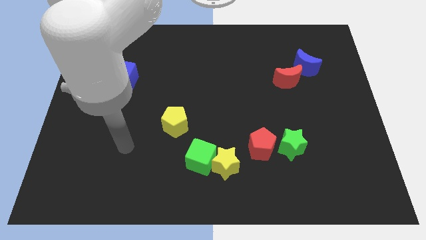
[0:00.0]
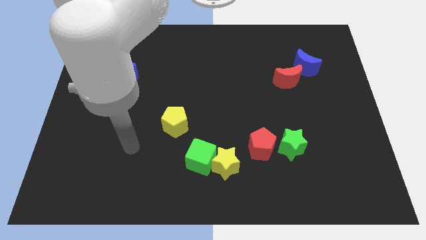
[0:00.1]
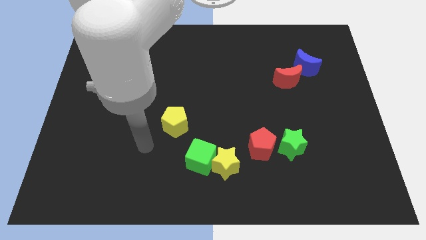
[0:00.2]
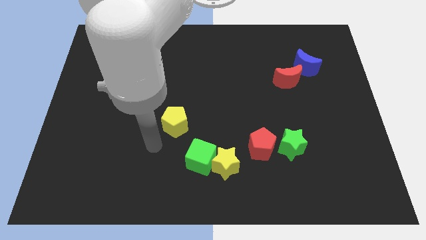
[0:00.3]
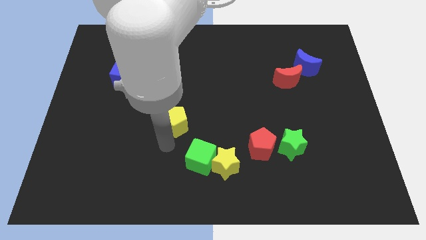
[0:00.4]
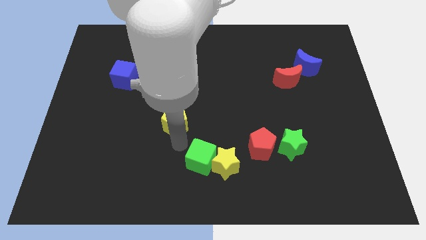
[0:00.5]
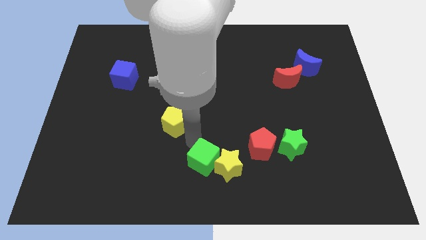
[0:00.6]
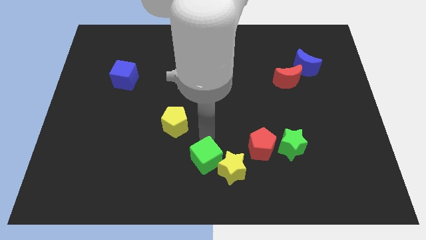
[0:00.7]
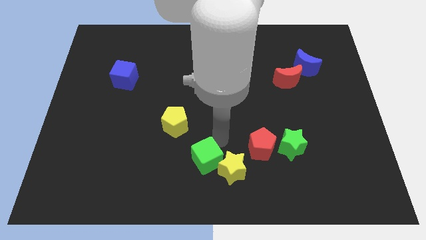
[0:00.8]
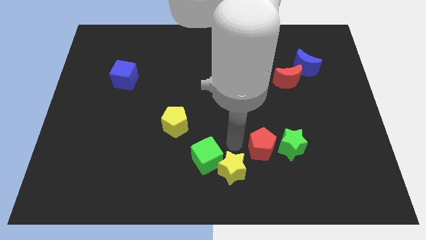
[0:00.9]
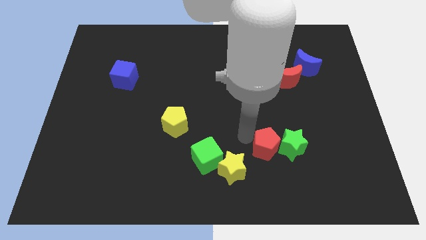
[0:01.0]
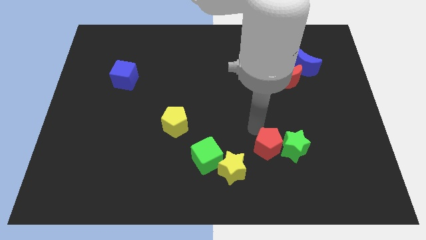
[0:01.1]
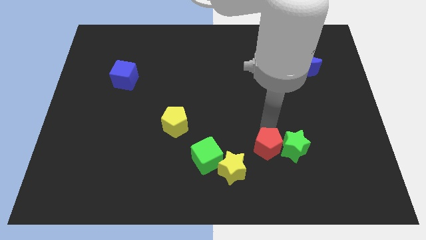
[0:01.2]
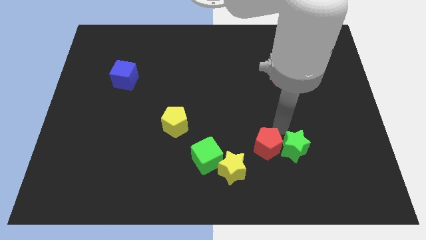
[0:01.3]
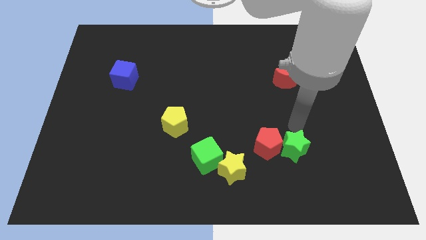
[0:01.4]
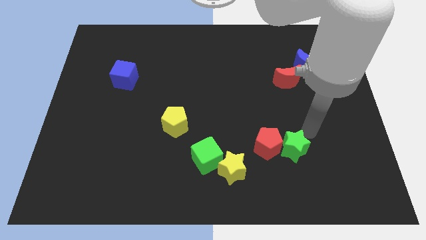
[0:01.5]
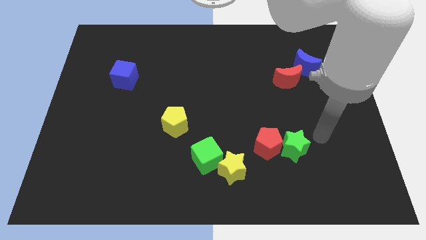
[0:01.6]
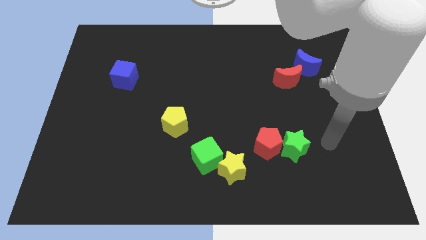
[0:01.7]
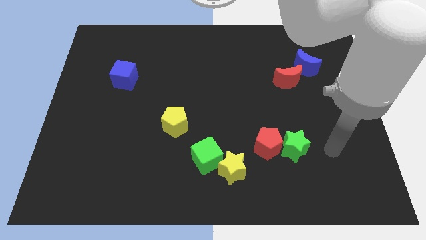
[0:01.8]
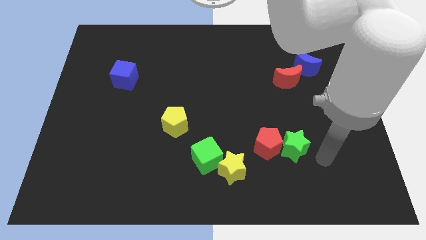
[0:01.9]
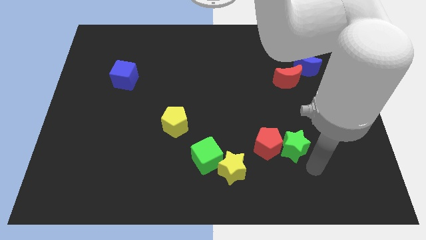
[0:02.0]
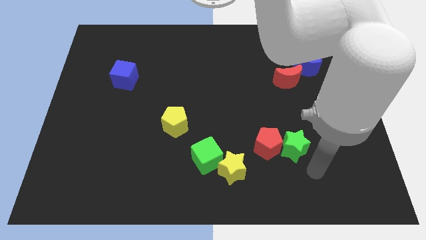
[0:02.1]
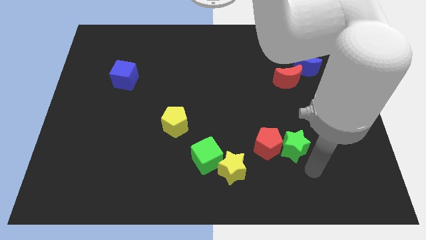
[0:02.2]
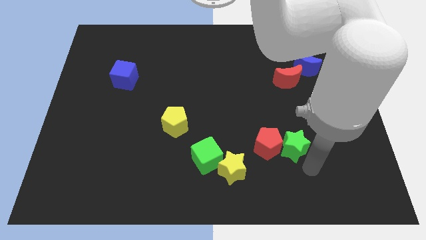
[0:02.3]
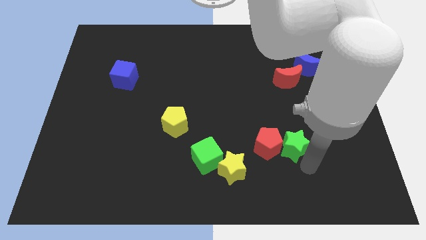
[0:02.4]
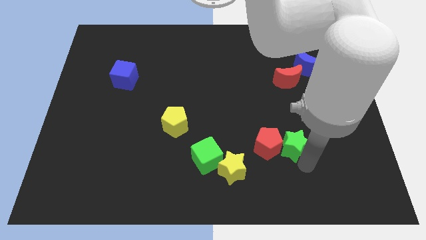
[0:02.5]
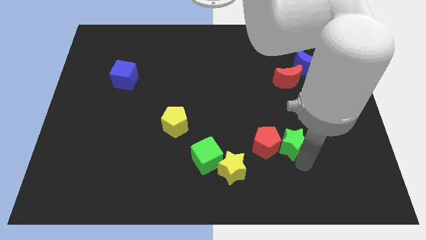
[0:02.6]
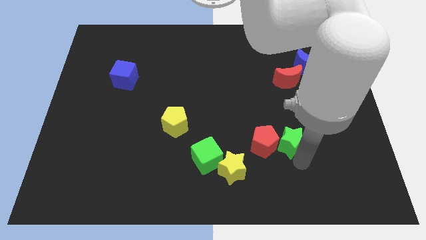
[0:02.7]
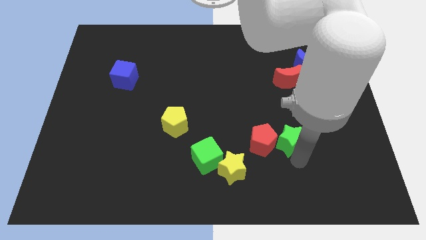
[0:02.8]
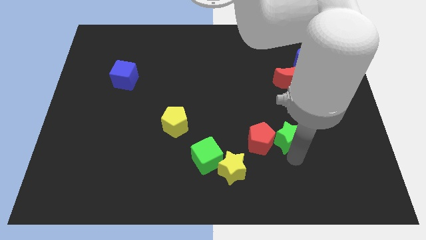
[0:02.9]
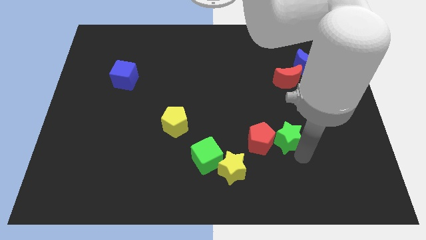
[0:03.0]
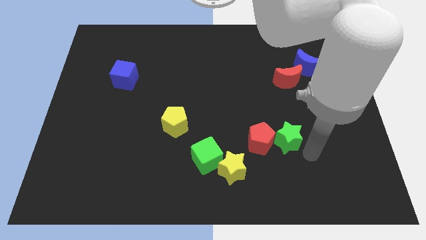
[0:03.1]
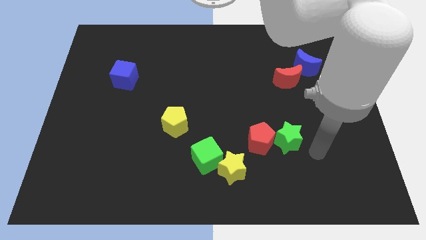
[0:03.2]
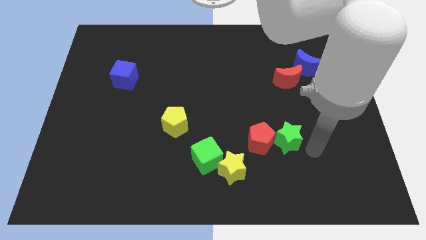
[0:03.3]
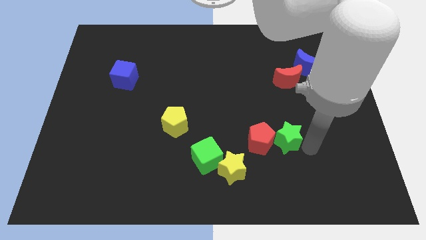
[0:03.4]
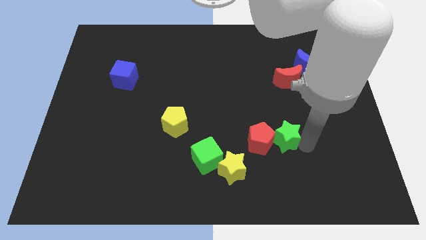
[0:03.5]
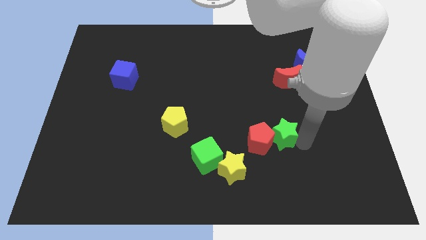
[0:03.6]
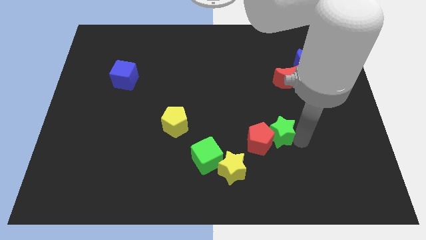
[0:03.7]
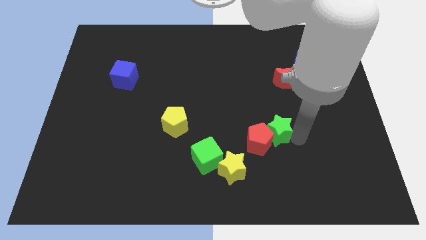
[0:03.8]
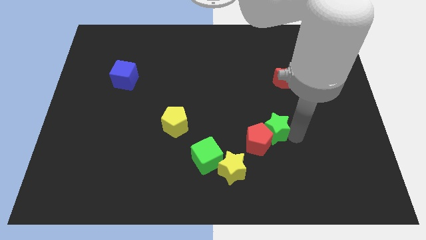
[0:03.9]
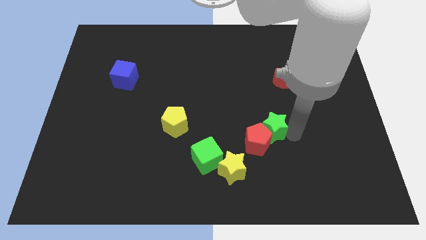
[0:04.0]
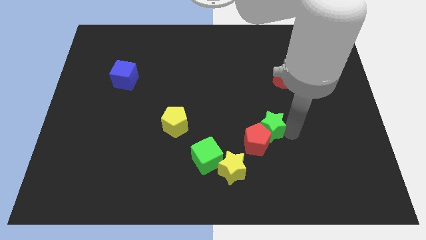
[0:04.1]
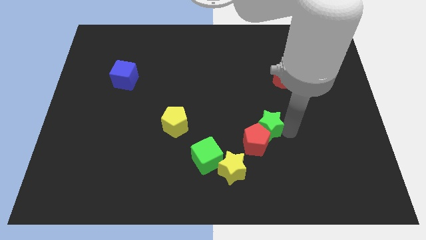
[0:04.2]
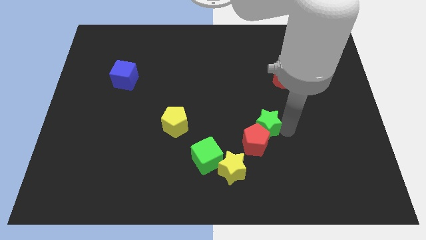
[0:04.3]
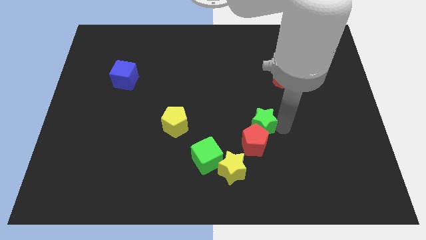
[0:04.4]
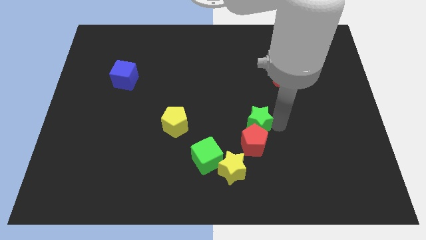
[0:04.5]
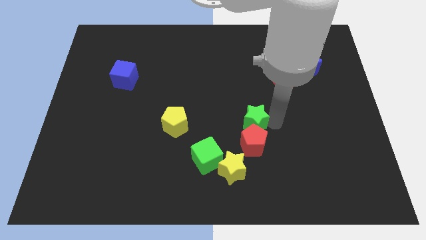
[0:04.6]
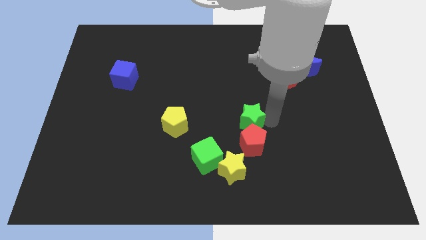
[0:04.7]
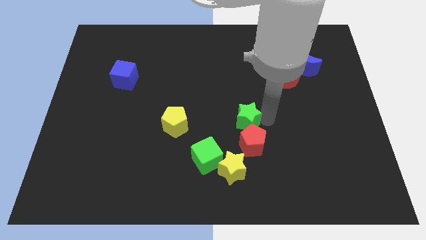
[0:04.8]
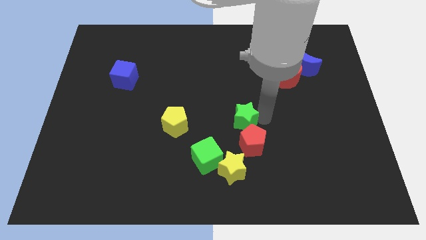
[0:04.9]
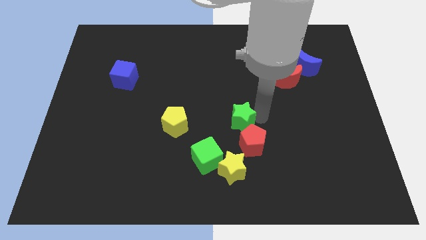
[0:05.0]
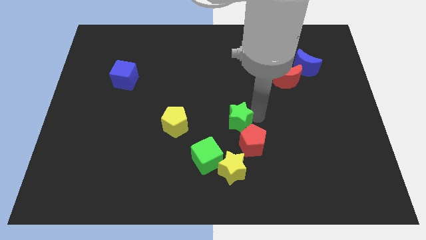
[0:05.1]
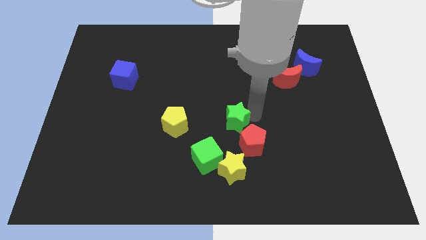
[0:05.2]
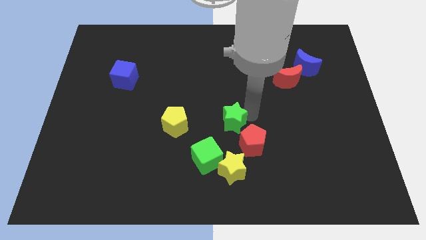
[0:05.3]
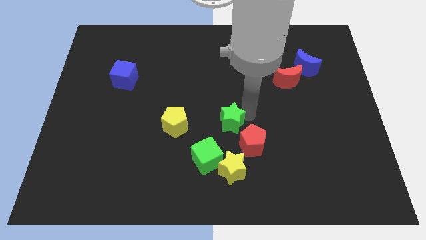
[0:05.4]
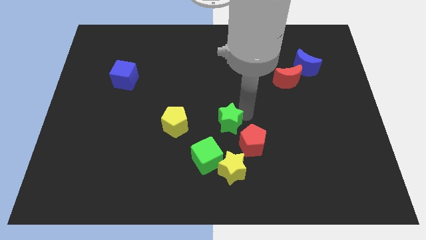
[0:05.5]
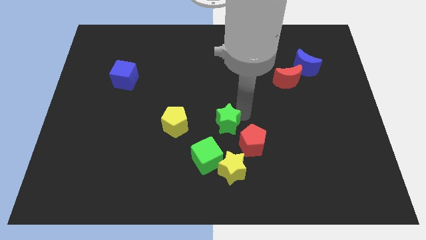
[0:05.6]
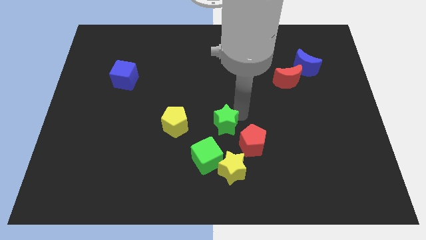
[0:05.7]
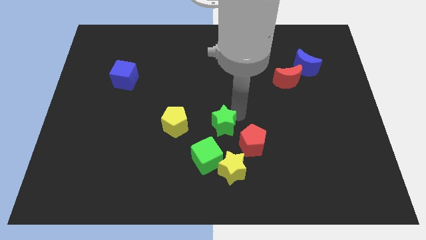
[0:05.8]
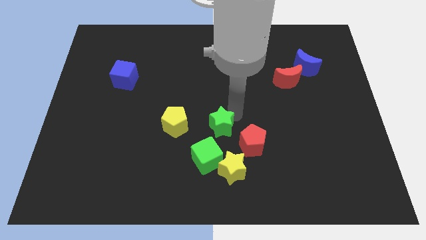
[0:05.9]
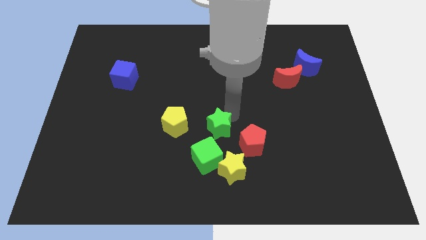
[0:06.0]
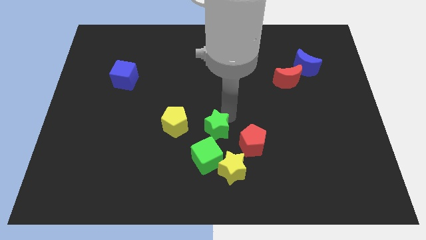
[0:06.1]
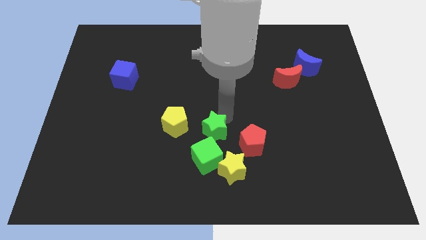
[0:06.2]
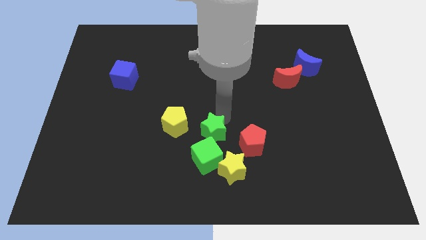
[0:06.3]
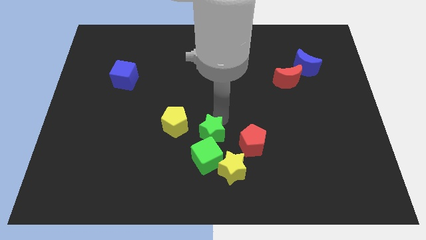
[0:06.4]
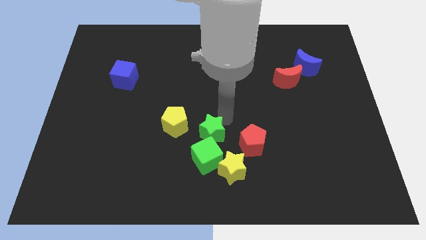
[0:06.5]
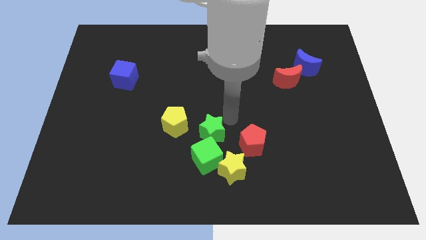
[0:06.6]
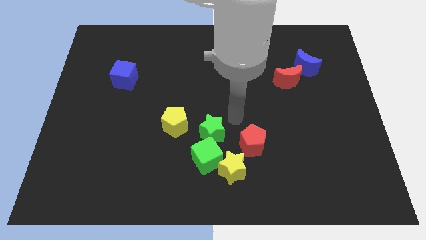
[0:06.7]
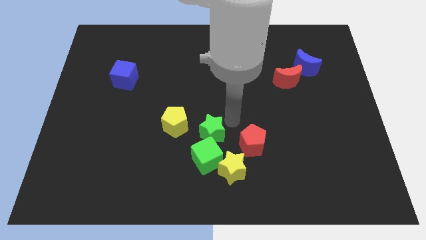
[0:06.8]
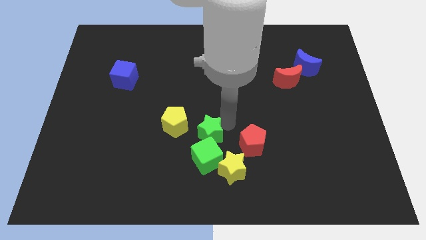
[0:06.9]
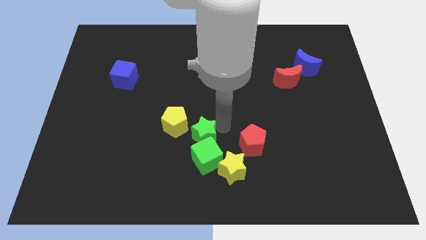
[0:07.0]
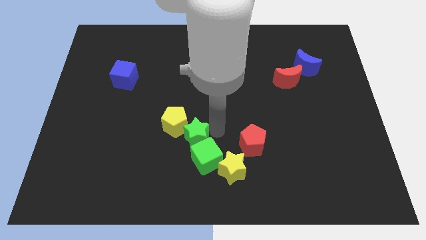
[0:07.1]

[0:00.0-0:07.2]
move the green star left

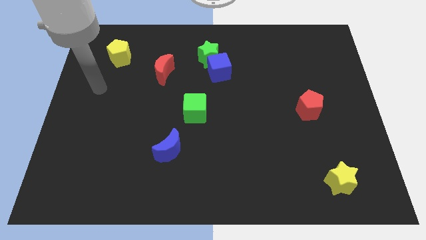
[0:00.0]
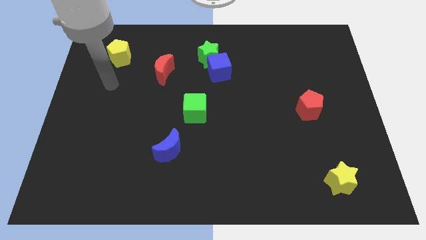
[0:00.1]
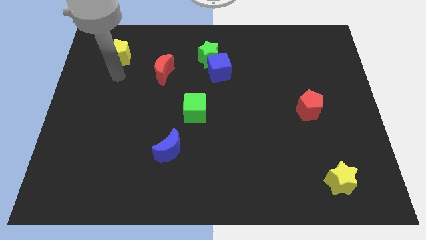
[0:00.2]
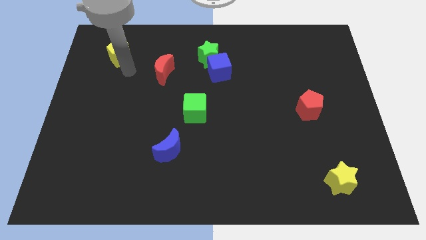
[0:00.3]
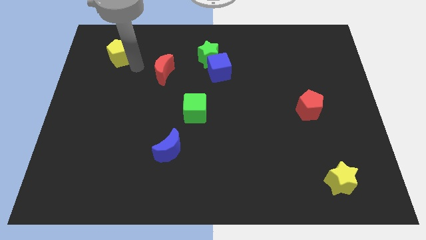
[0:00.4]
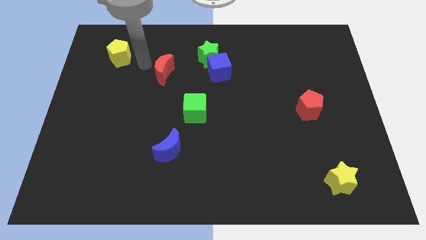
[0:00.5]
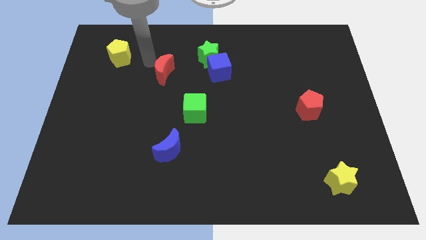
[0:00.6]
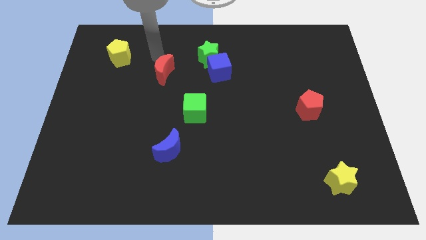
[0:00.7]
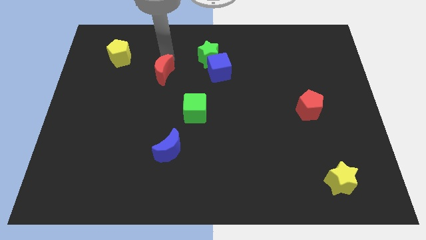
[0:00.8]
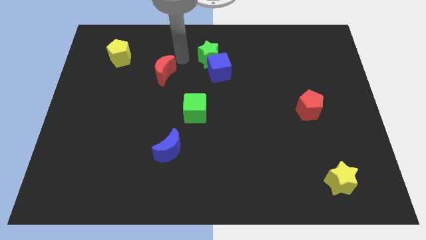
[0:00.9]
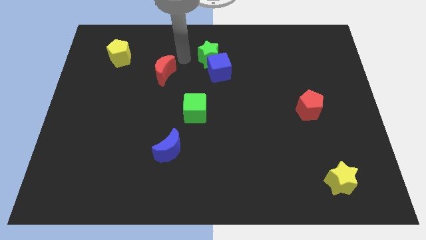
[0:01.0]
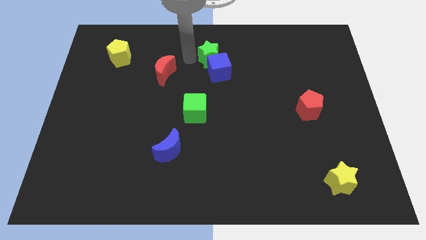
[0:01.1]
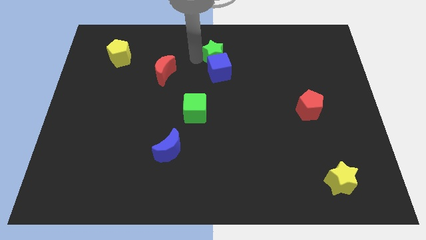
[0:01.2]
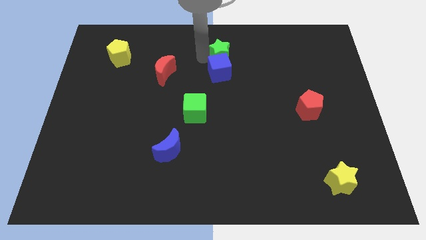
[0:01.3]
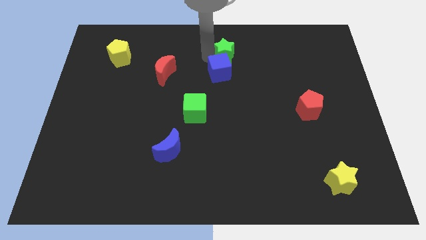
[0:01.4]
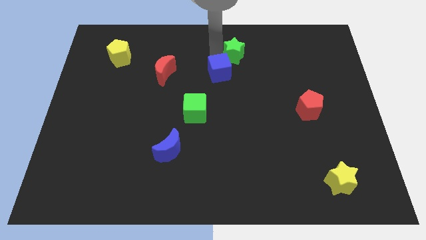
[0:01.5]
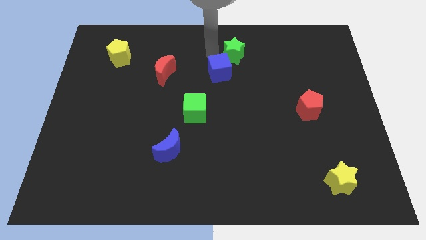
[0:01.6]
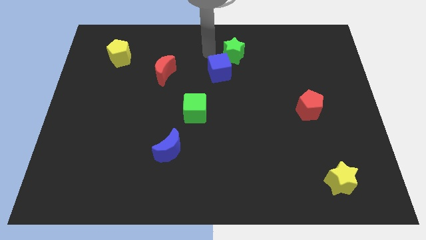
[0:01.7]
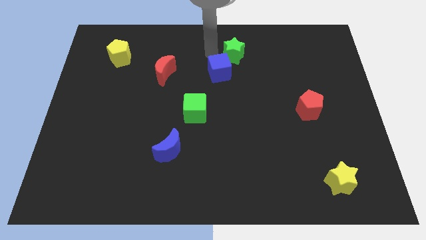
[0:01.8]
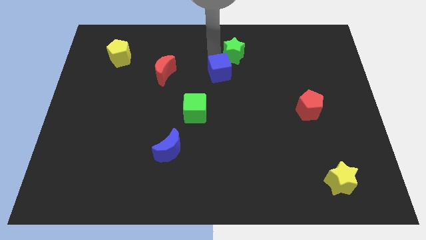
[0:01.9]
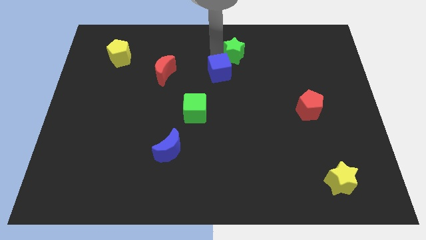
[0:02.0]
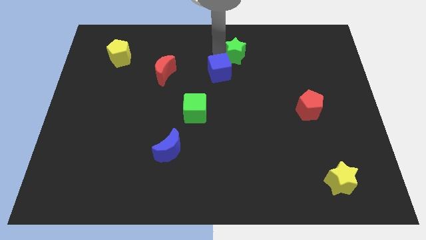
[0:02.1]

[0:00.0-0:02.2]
move the green star to the right slightly
